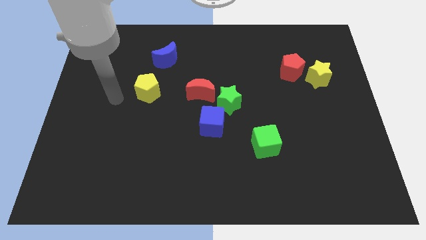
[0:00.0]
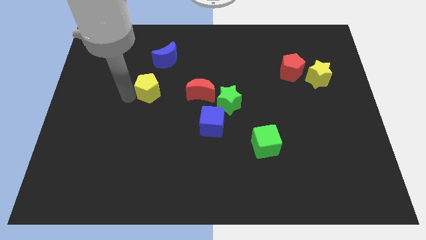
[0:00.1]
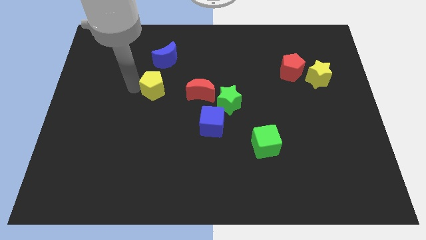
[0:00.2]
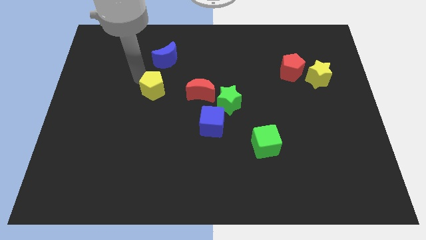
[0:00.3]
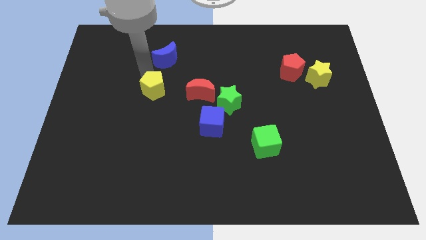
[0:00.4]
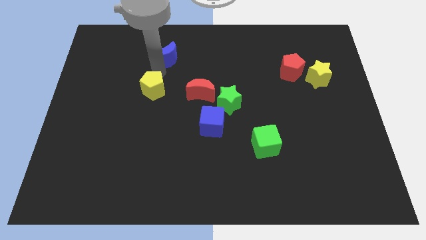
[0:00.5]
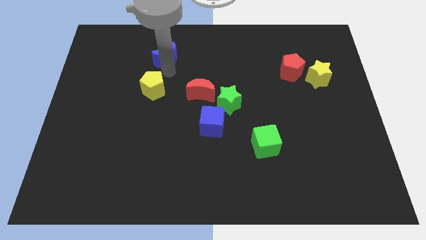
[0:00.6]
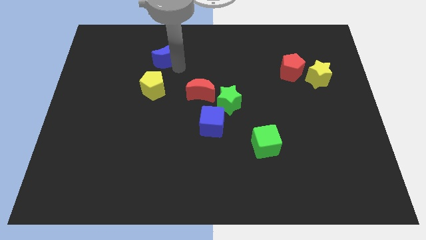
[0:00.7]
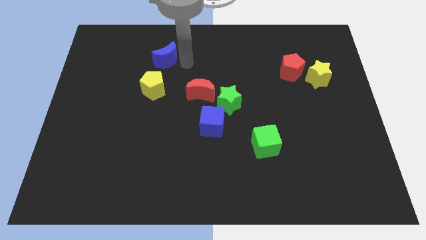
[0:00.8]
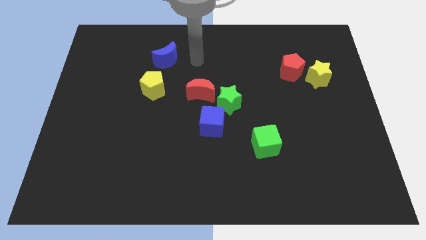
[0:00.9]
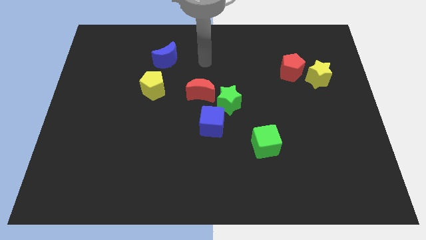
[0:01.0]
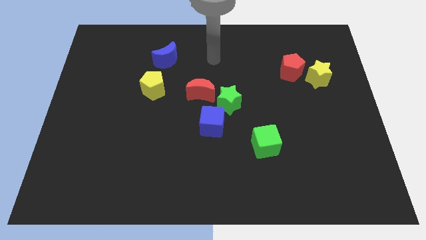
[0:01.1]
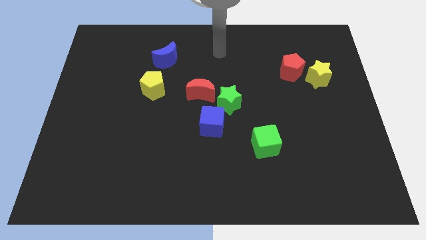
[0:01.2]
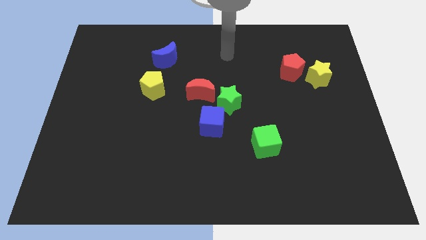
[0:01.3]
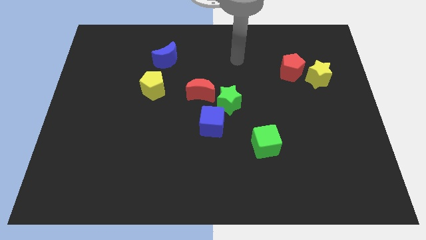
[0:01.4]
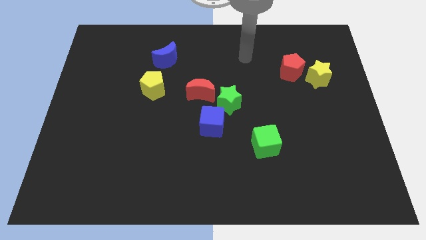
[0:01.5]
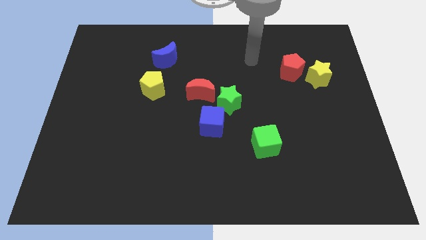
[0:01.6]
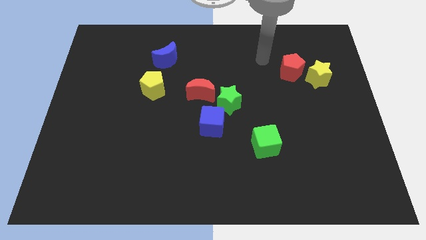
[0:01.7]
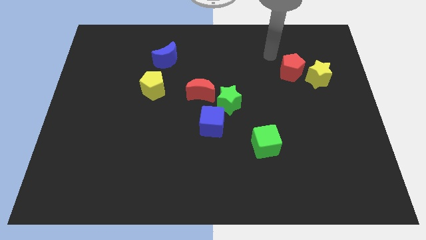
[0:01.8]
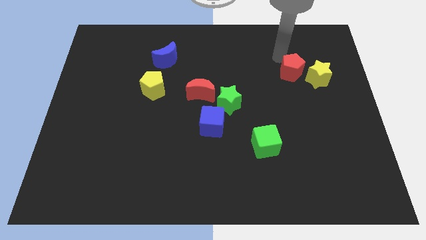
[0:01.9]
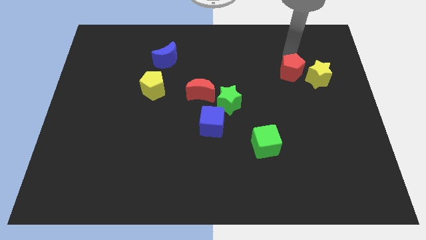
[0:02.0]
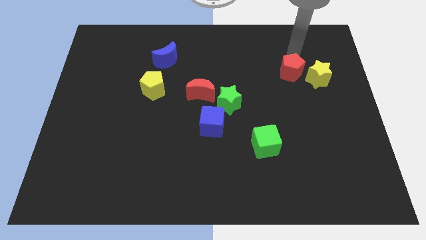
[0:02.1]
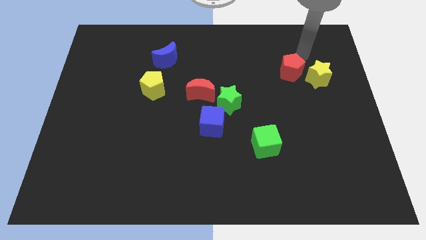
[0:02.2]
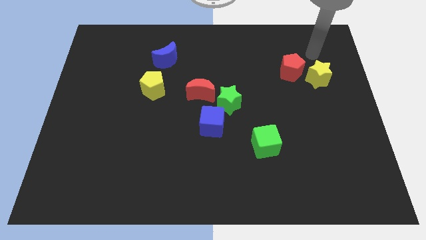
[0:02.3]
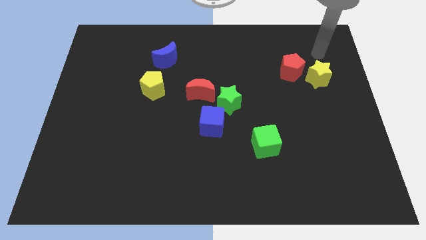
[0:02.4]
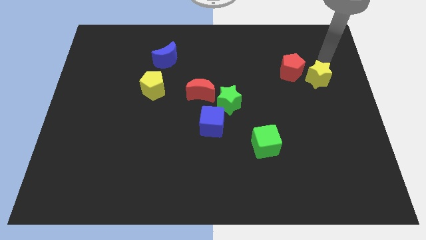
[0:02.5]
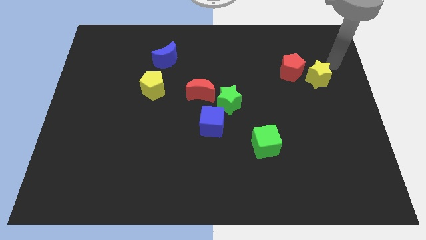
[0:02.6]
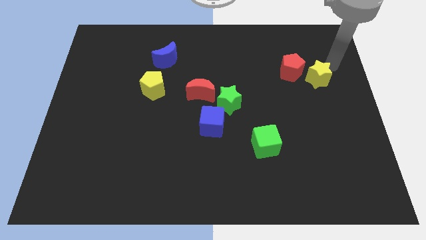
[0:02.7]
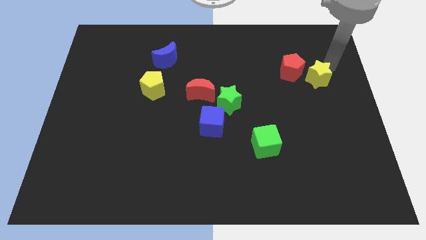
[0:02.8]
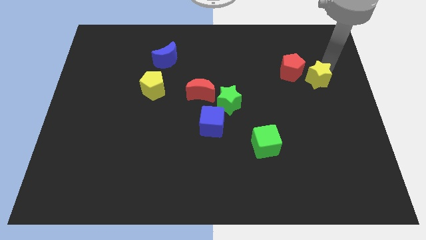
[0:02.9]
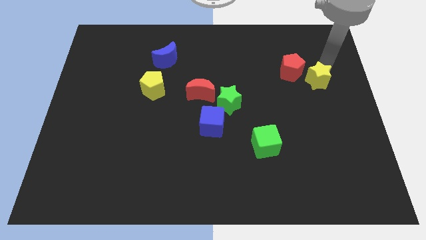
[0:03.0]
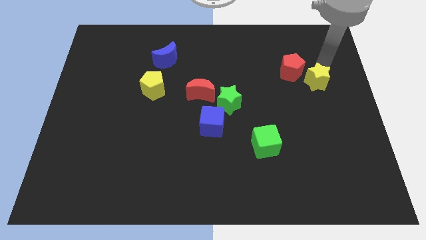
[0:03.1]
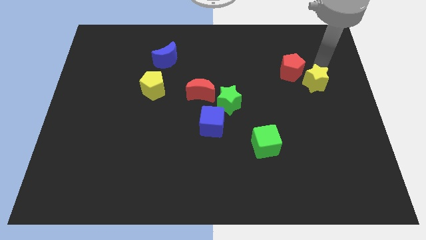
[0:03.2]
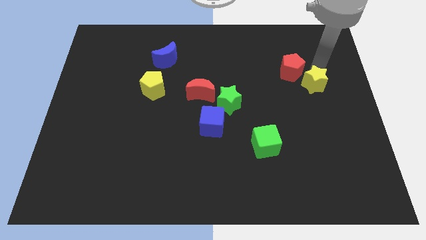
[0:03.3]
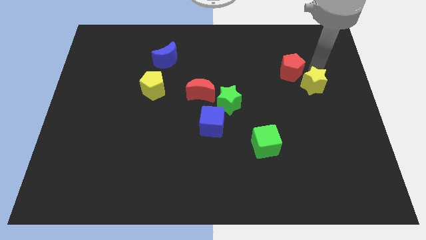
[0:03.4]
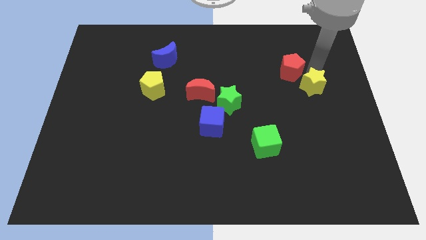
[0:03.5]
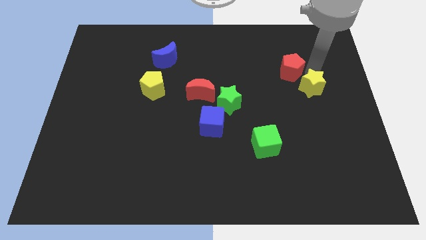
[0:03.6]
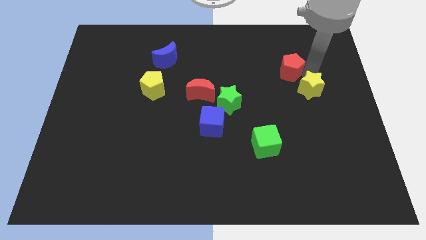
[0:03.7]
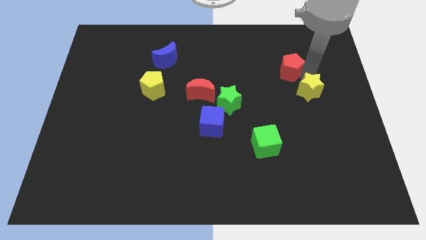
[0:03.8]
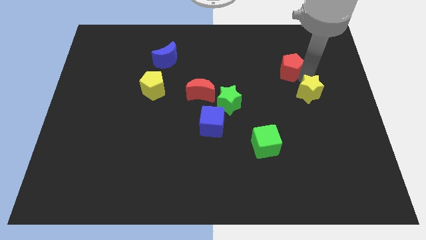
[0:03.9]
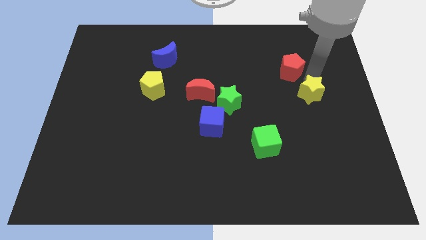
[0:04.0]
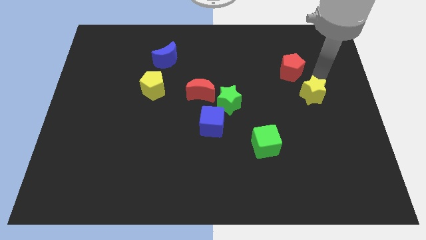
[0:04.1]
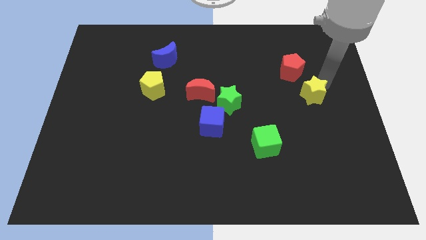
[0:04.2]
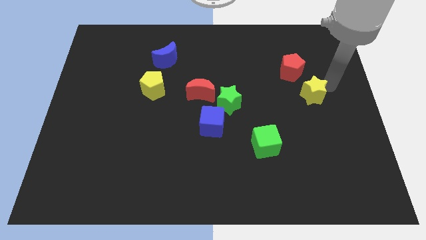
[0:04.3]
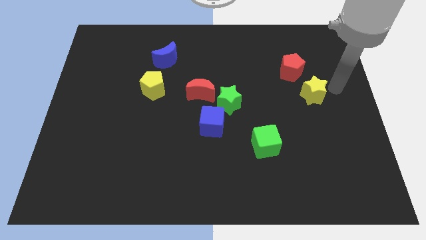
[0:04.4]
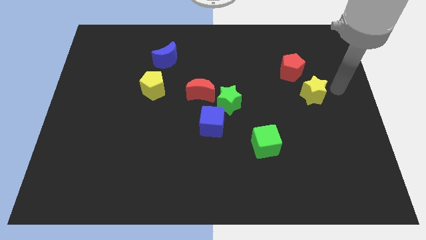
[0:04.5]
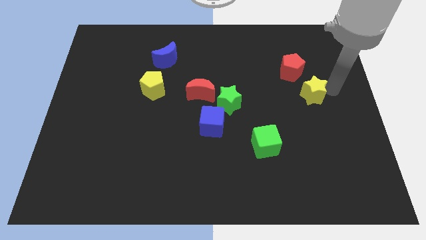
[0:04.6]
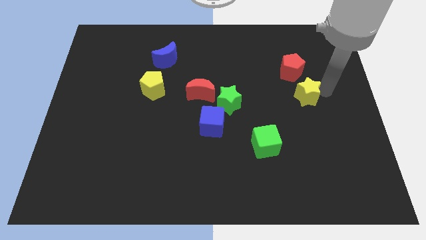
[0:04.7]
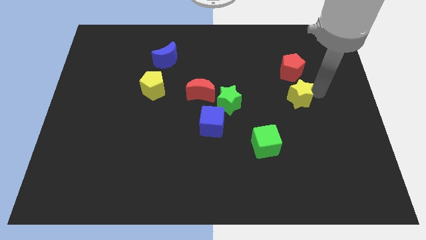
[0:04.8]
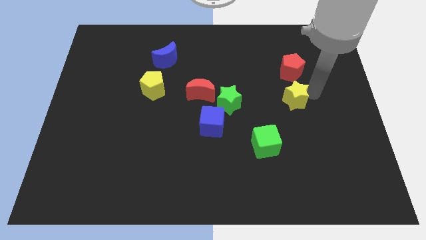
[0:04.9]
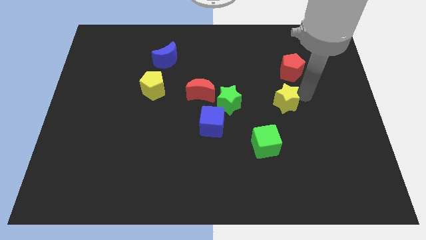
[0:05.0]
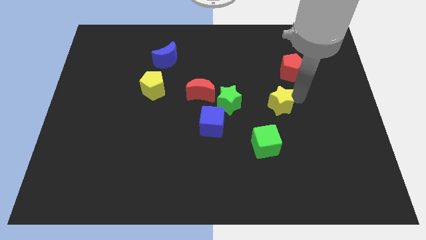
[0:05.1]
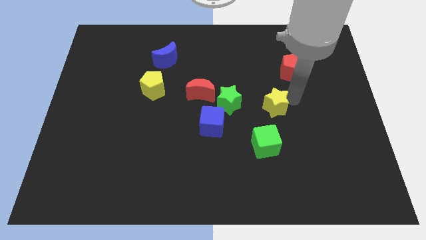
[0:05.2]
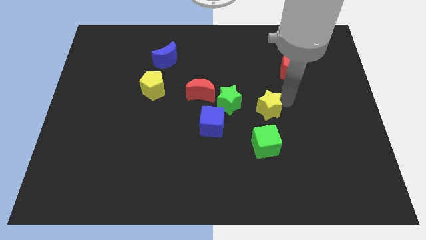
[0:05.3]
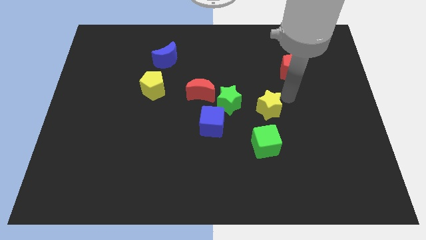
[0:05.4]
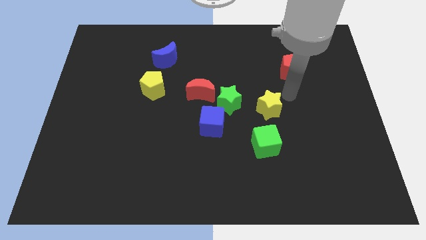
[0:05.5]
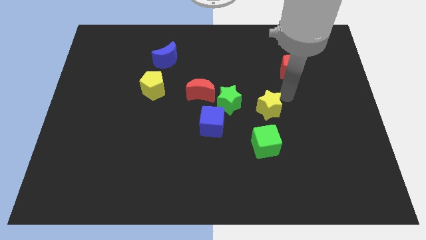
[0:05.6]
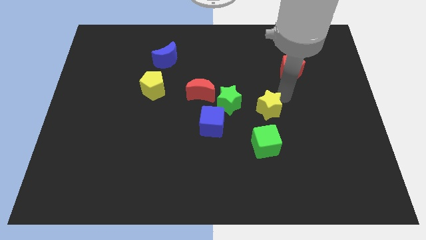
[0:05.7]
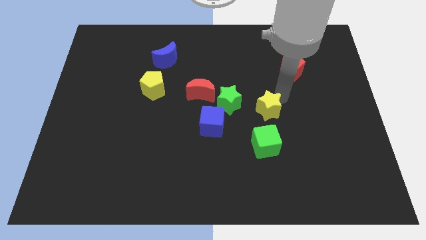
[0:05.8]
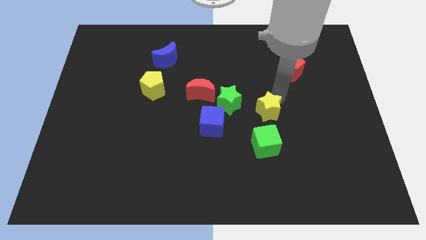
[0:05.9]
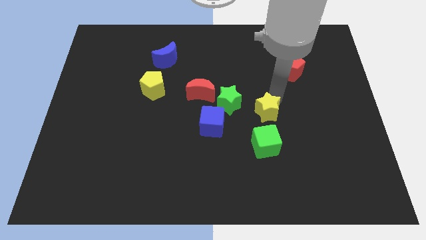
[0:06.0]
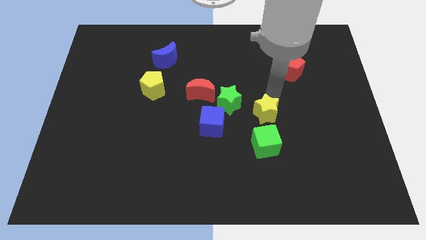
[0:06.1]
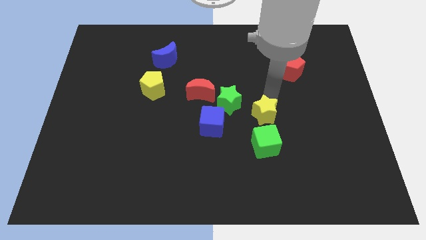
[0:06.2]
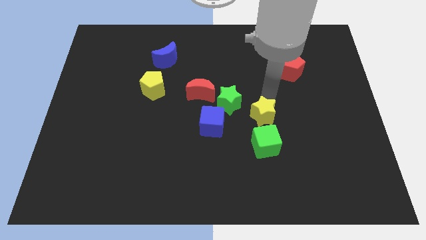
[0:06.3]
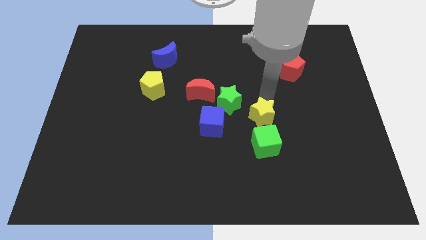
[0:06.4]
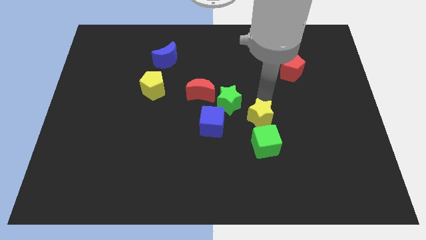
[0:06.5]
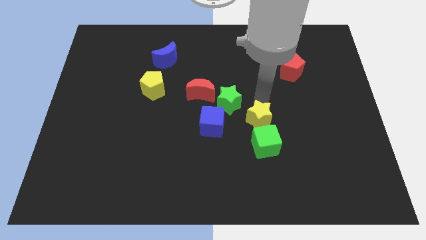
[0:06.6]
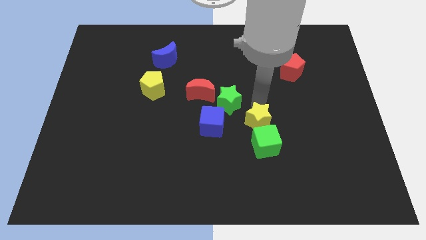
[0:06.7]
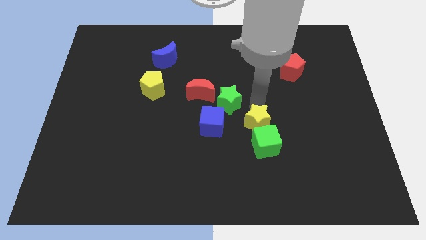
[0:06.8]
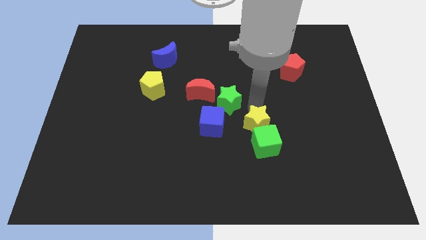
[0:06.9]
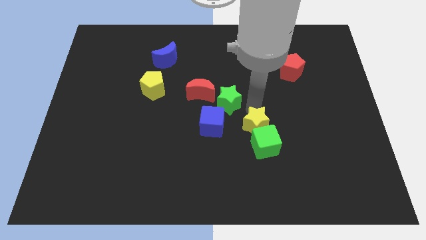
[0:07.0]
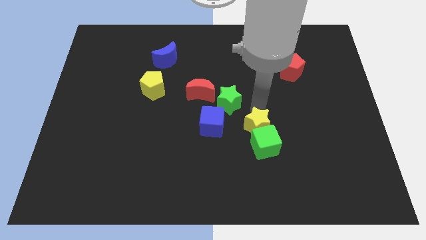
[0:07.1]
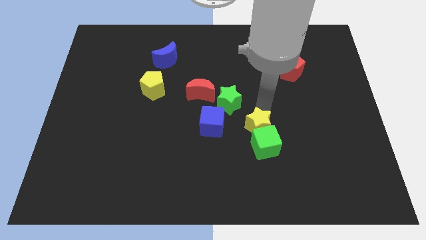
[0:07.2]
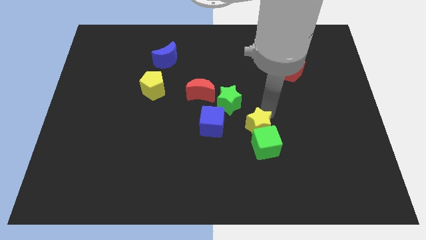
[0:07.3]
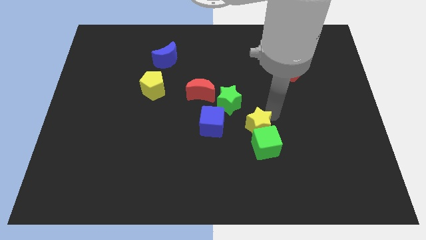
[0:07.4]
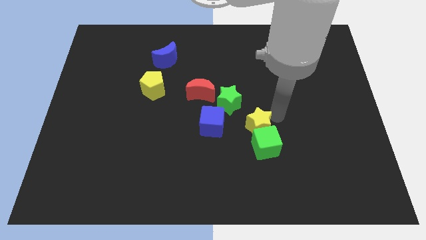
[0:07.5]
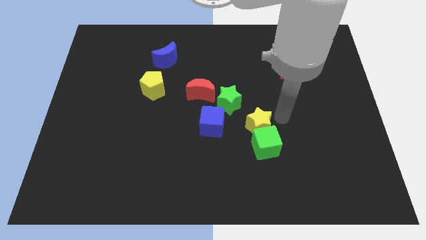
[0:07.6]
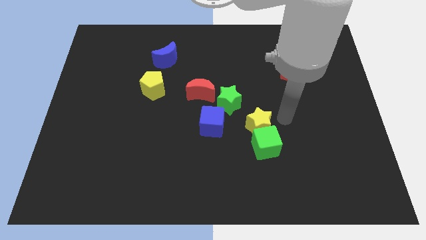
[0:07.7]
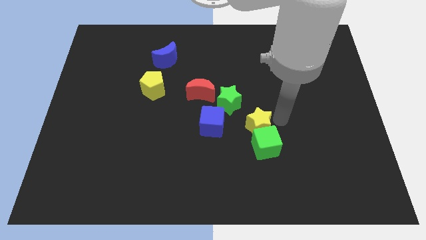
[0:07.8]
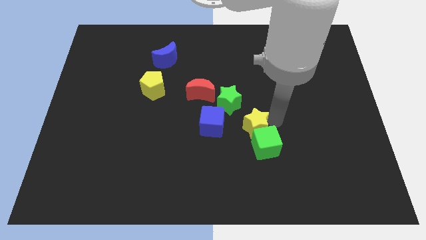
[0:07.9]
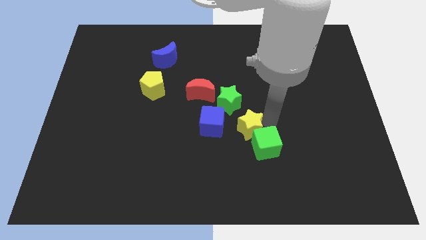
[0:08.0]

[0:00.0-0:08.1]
put the yellow star below the green star
